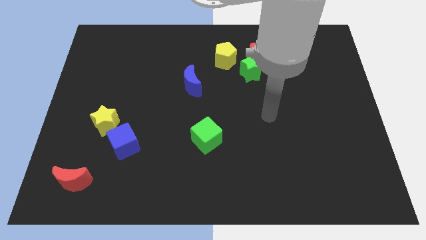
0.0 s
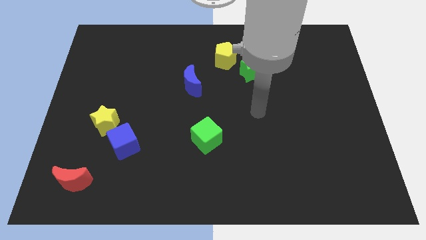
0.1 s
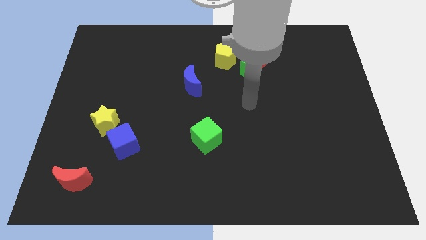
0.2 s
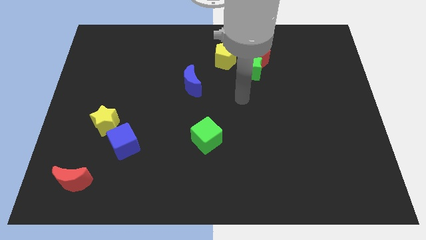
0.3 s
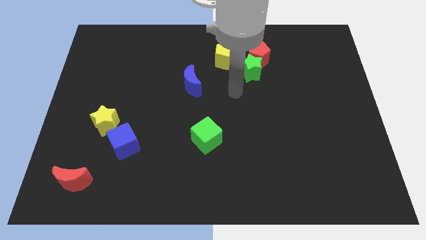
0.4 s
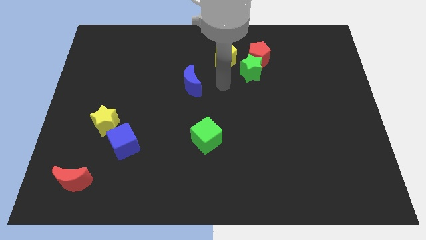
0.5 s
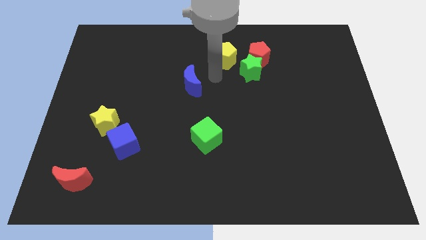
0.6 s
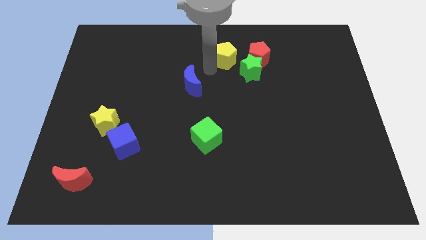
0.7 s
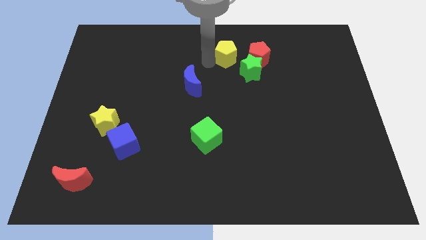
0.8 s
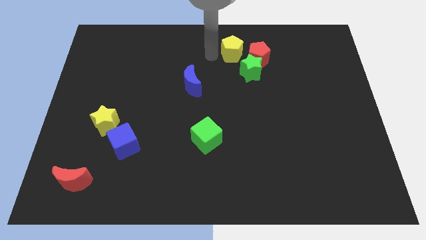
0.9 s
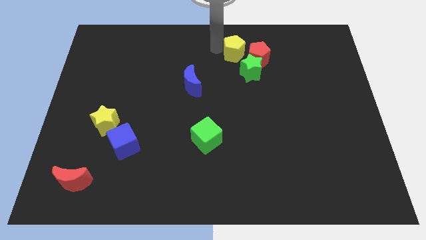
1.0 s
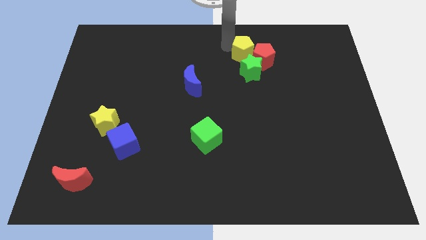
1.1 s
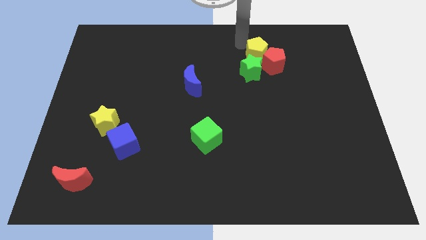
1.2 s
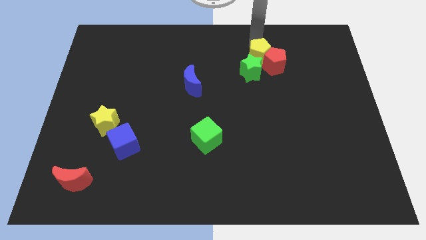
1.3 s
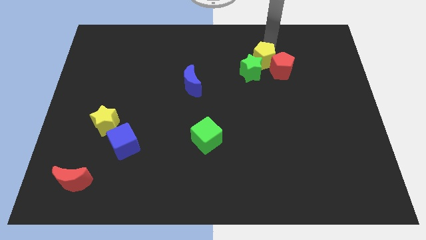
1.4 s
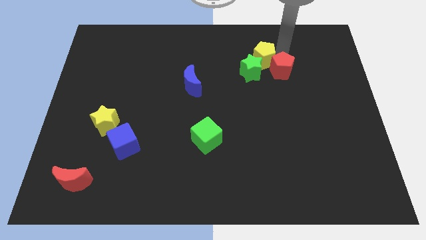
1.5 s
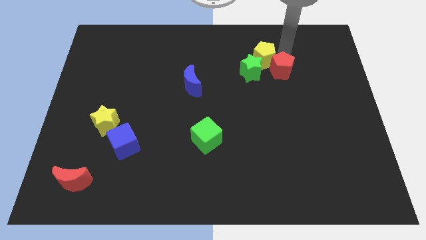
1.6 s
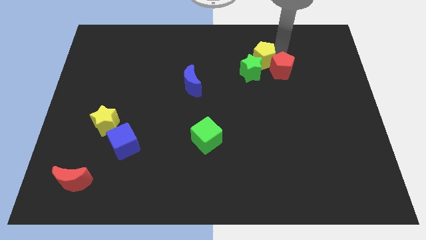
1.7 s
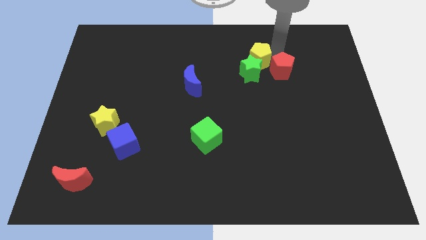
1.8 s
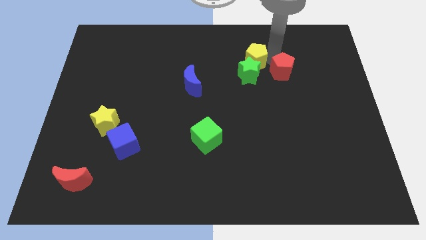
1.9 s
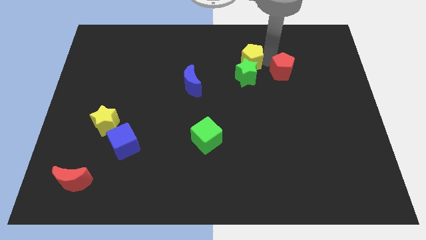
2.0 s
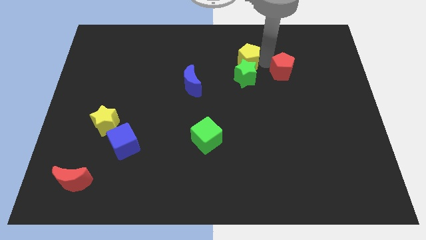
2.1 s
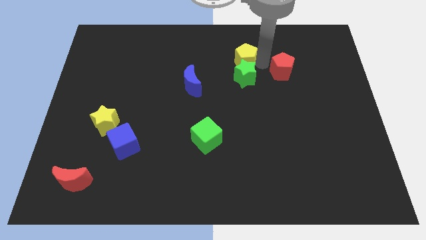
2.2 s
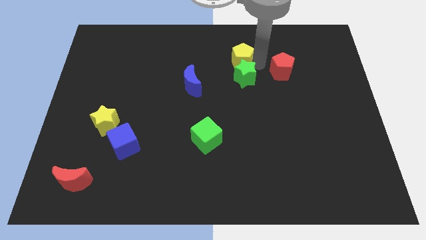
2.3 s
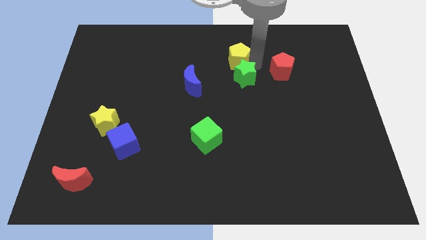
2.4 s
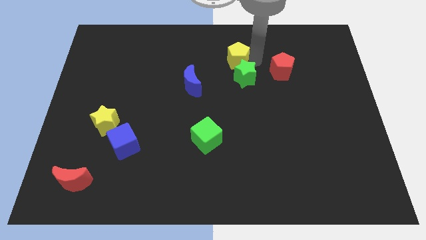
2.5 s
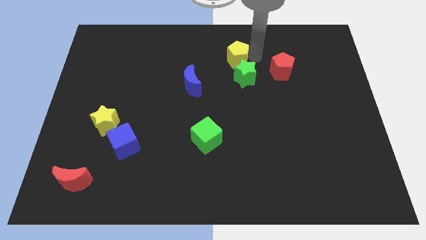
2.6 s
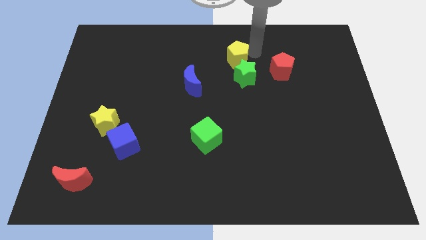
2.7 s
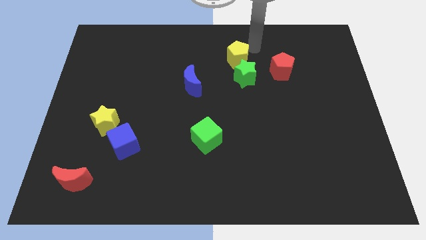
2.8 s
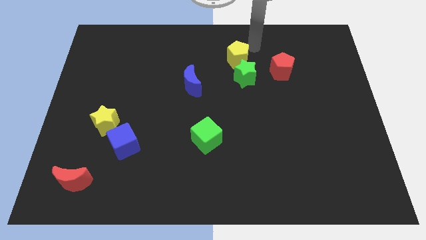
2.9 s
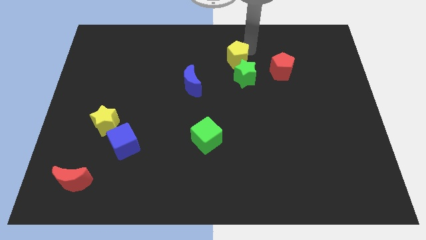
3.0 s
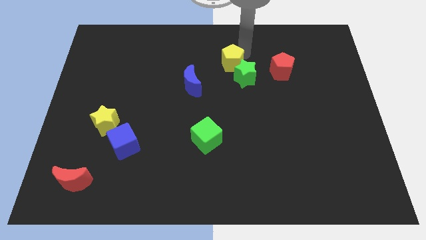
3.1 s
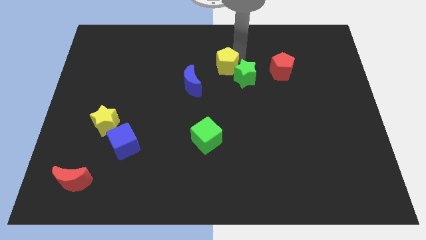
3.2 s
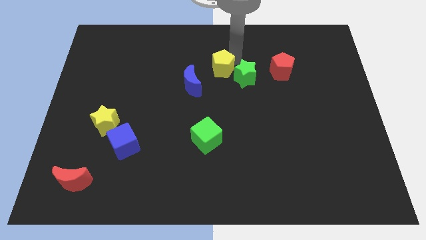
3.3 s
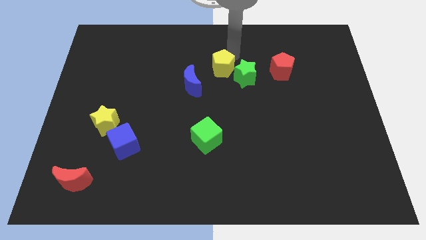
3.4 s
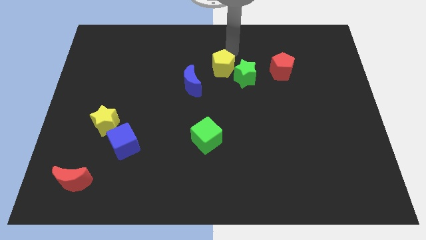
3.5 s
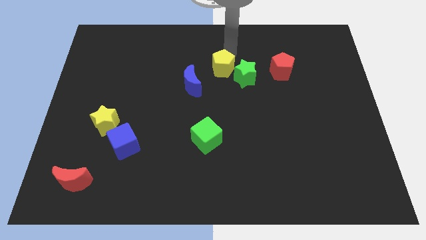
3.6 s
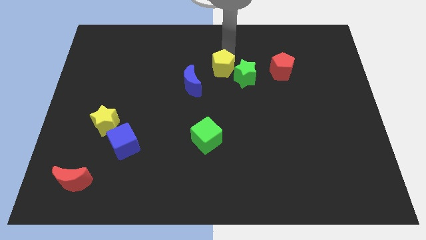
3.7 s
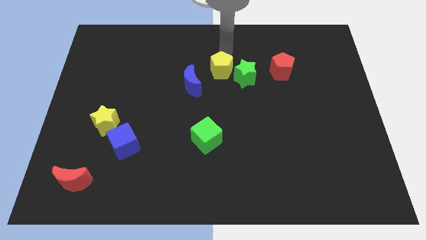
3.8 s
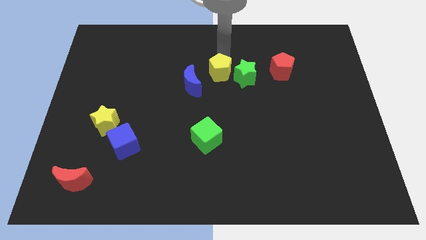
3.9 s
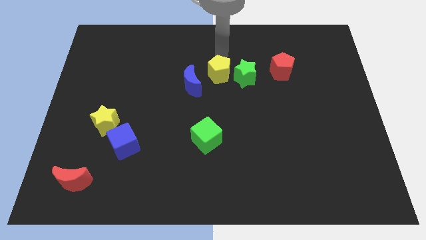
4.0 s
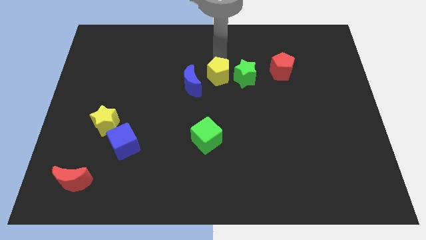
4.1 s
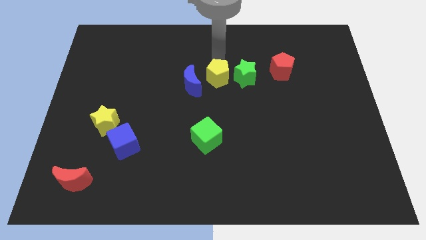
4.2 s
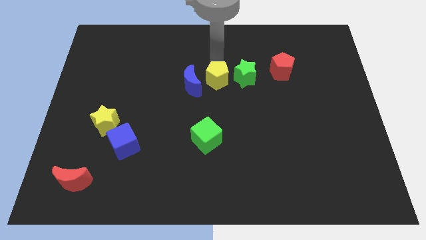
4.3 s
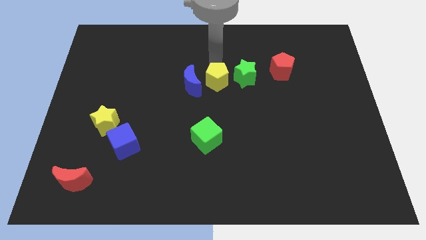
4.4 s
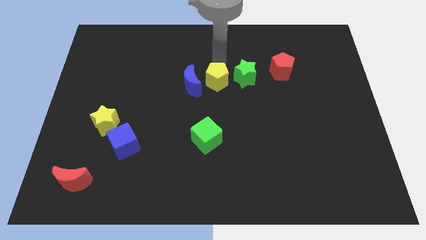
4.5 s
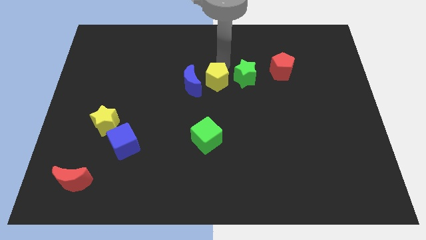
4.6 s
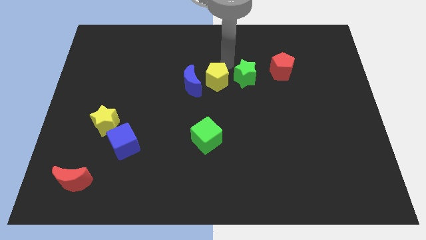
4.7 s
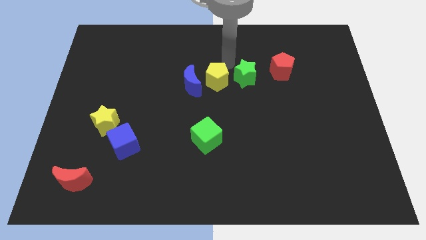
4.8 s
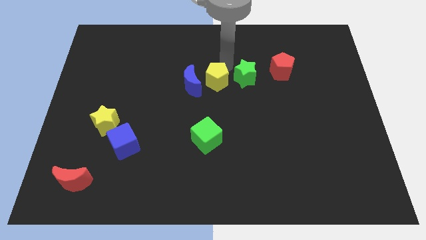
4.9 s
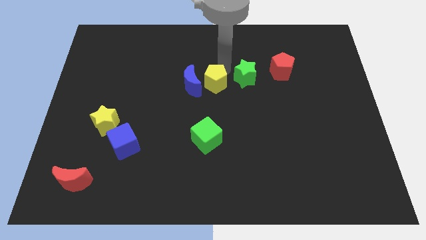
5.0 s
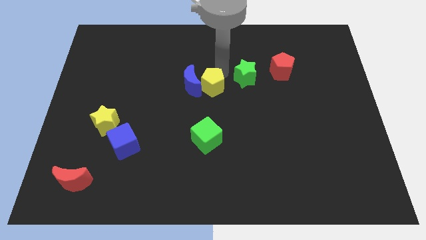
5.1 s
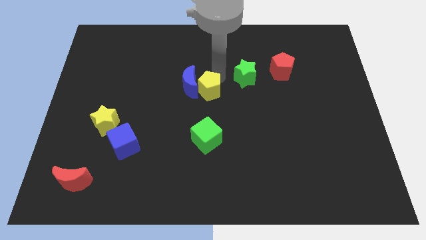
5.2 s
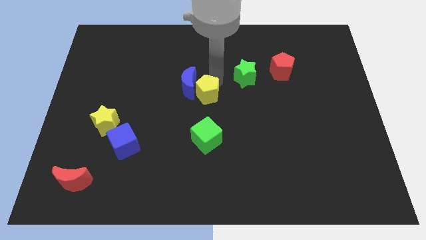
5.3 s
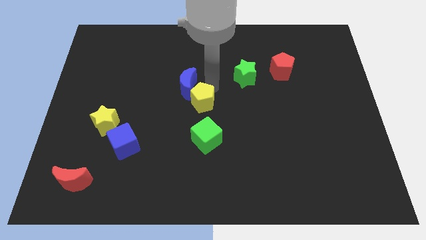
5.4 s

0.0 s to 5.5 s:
push the yellow pentagon to the bottom of the blue moon

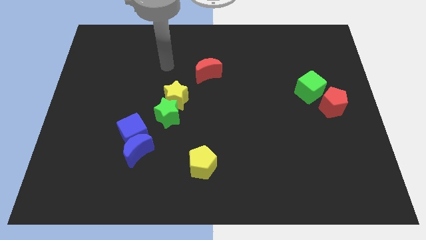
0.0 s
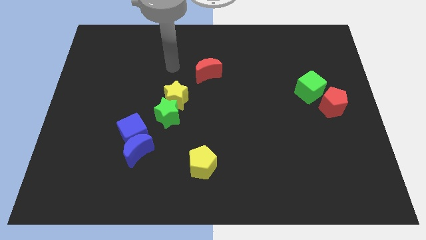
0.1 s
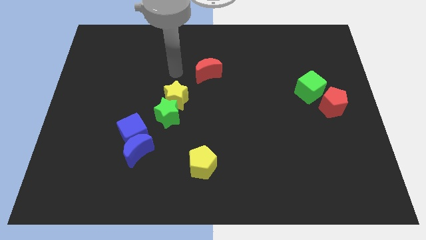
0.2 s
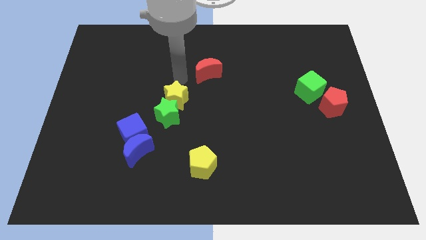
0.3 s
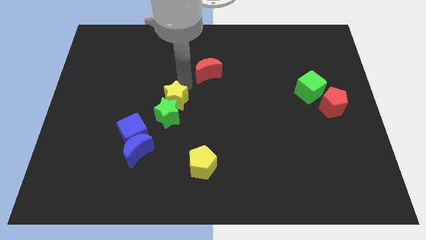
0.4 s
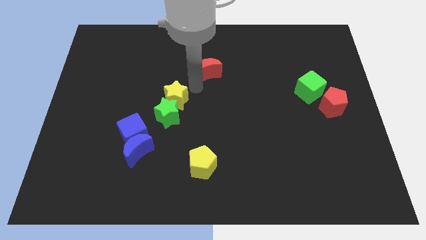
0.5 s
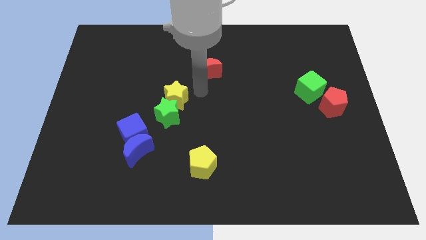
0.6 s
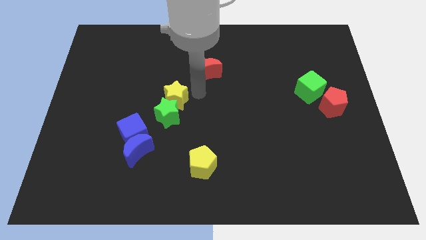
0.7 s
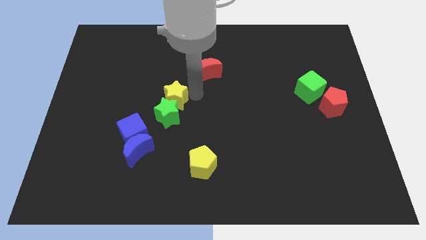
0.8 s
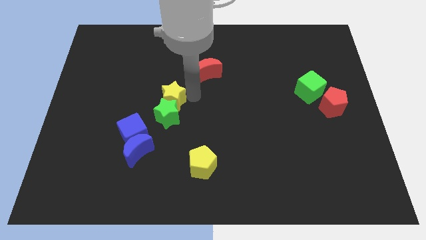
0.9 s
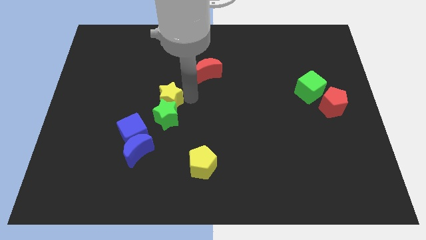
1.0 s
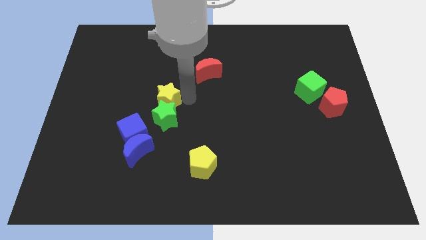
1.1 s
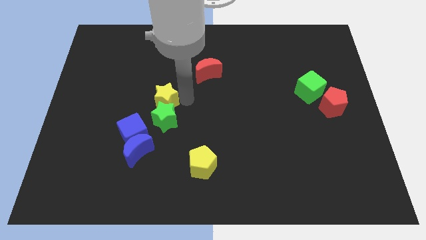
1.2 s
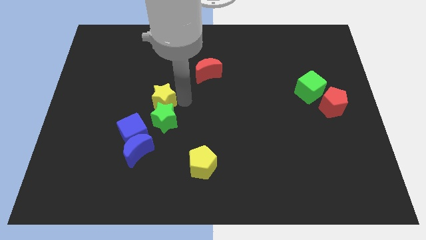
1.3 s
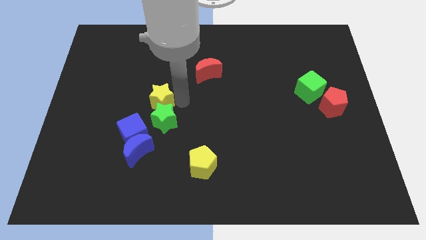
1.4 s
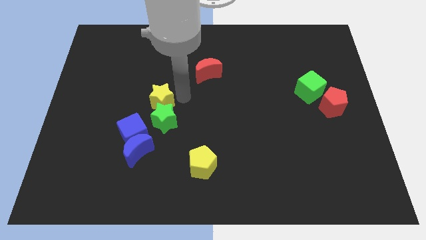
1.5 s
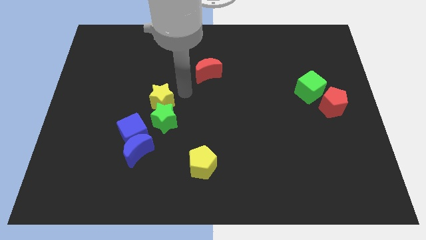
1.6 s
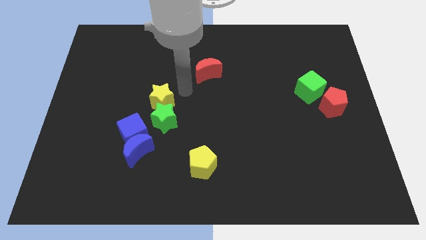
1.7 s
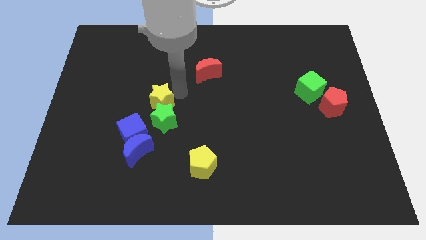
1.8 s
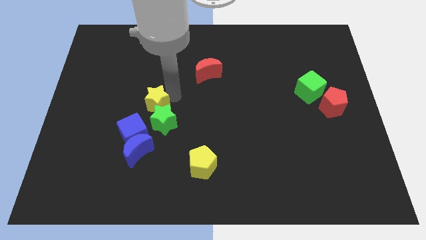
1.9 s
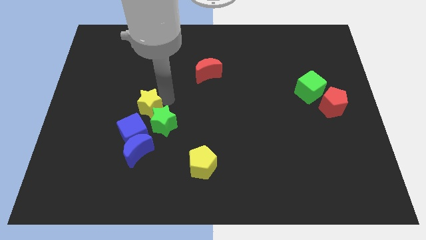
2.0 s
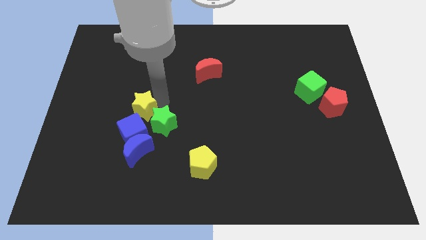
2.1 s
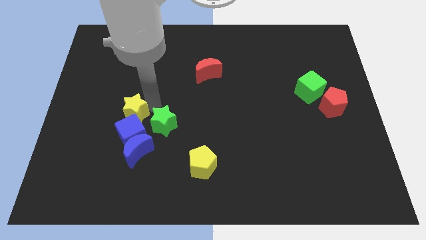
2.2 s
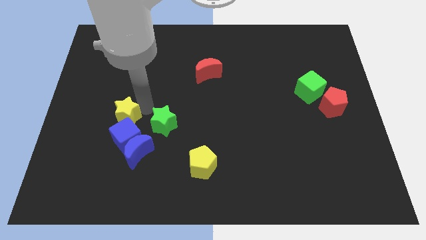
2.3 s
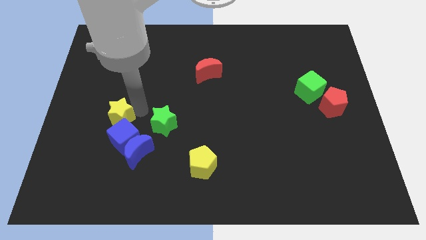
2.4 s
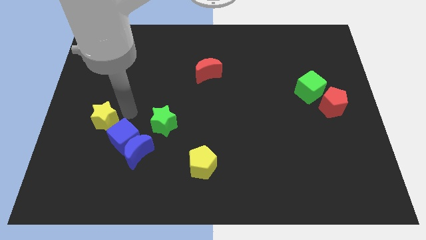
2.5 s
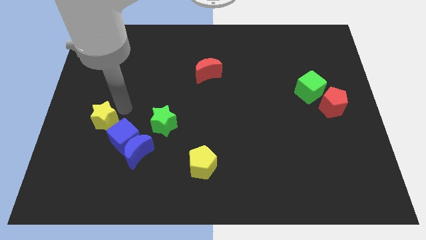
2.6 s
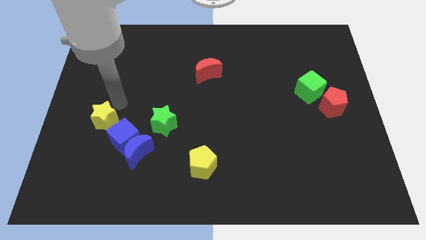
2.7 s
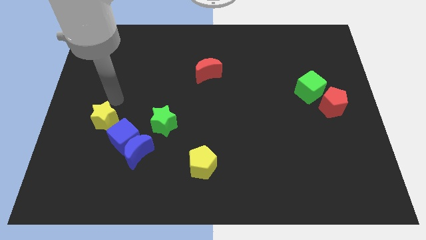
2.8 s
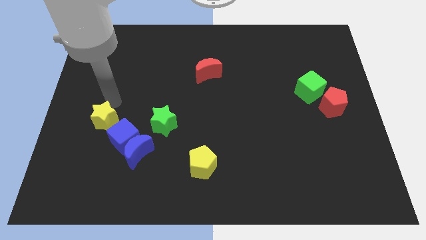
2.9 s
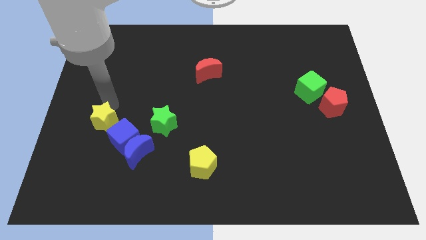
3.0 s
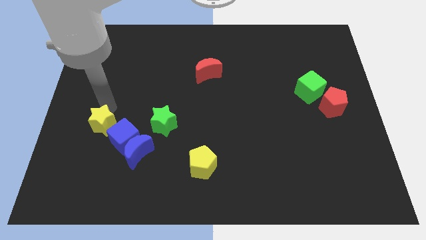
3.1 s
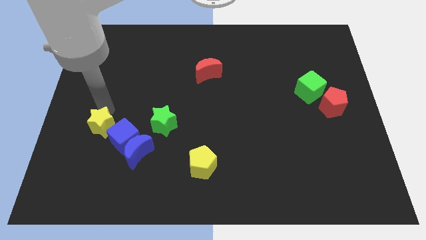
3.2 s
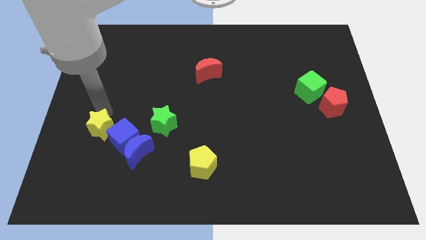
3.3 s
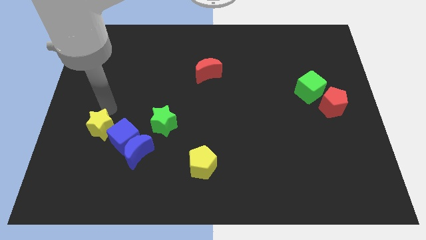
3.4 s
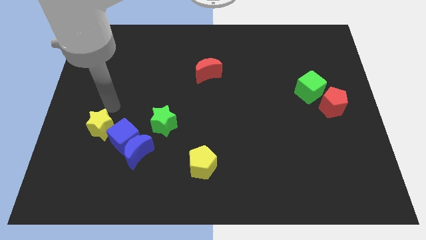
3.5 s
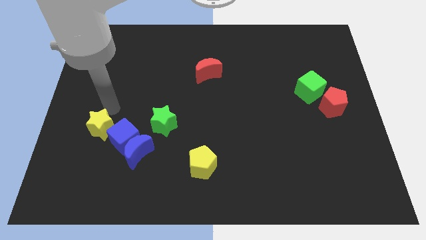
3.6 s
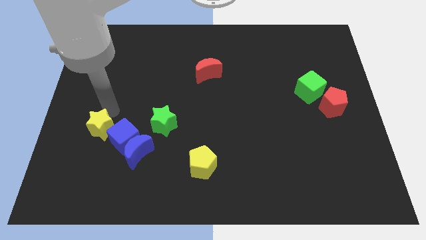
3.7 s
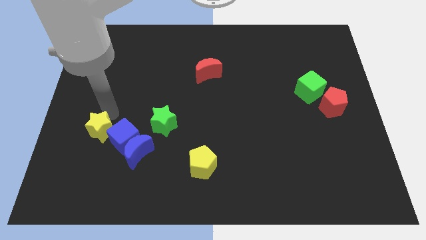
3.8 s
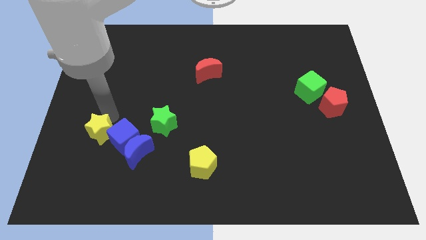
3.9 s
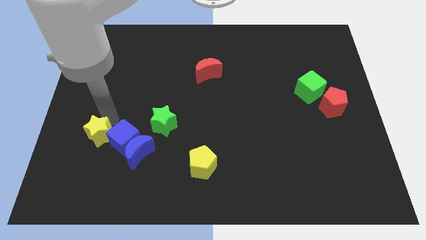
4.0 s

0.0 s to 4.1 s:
move the yellow star left of the blue moon
